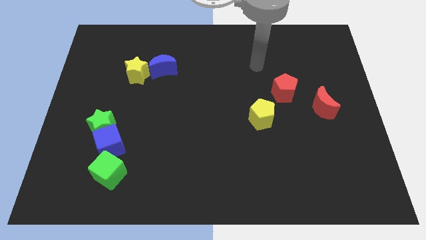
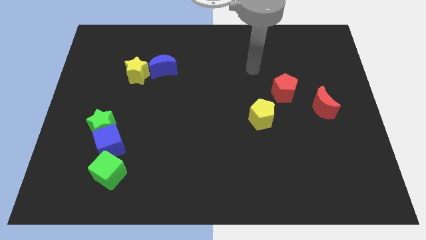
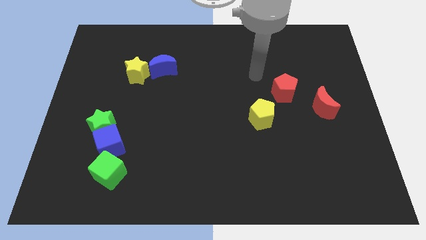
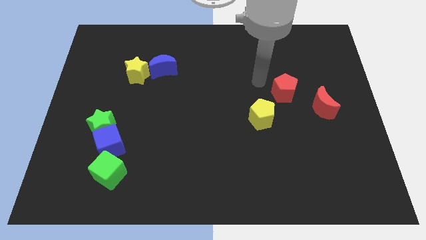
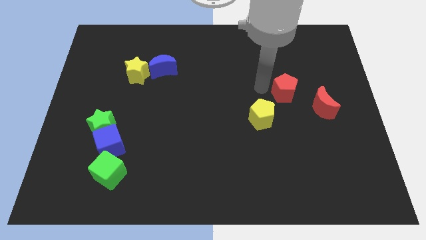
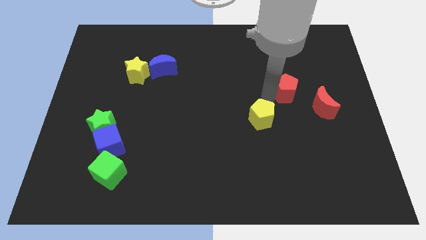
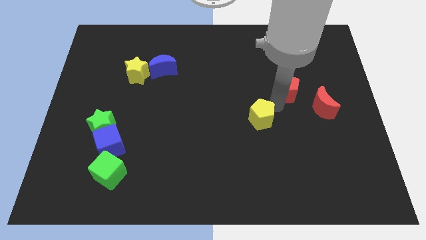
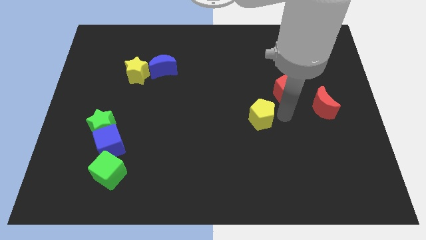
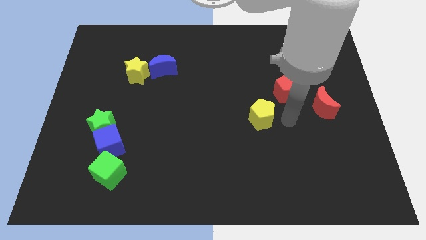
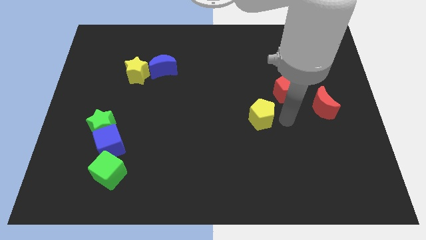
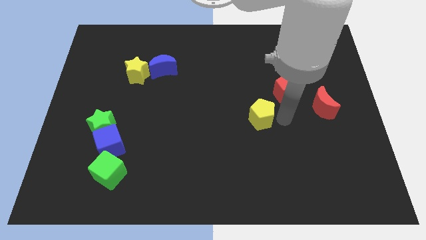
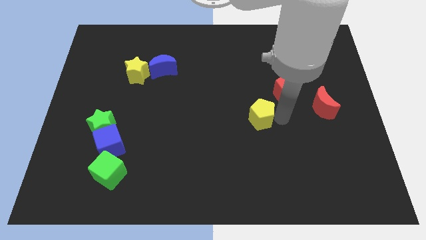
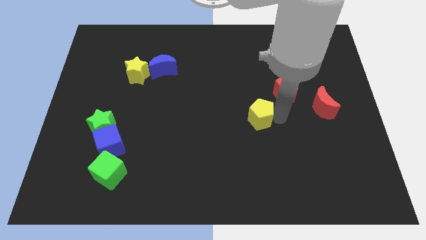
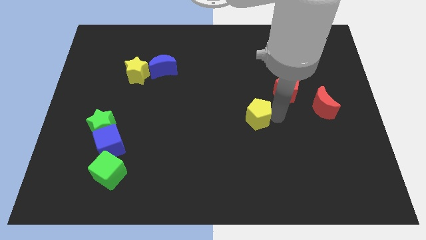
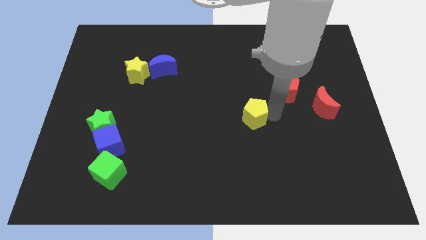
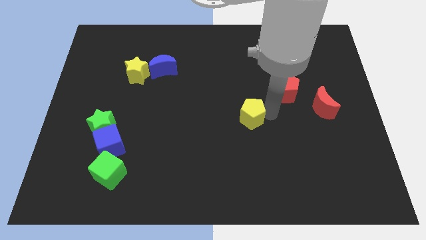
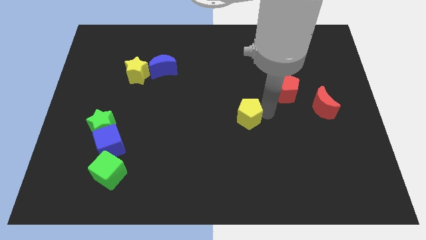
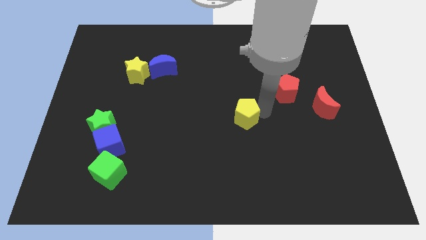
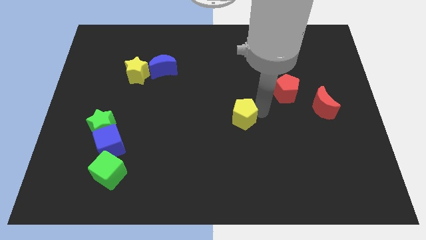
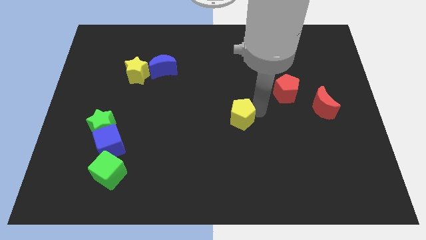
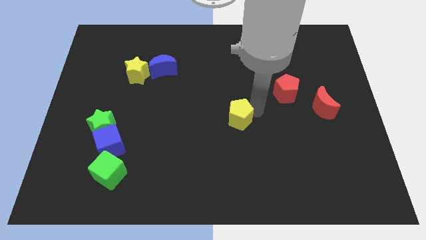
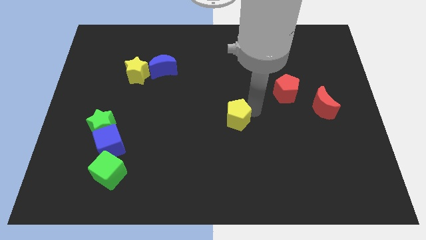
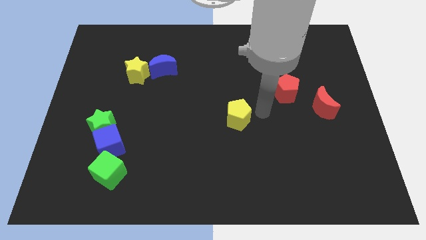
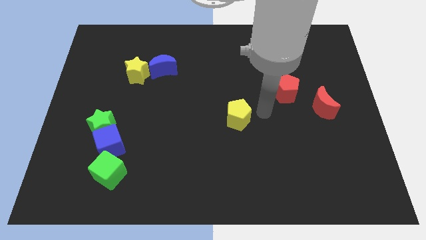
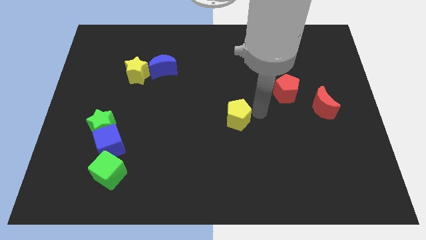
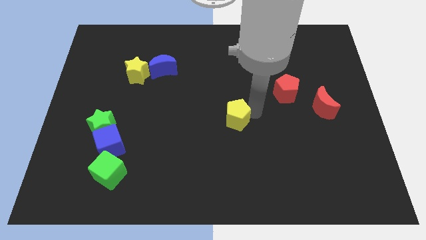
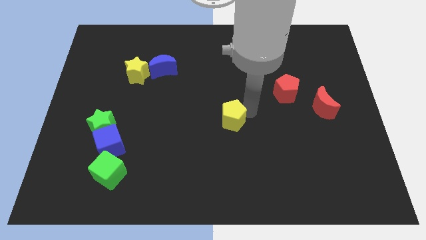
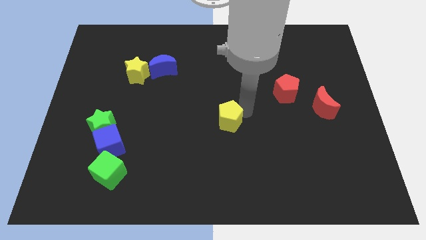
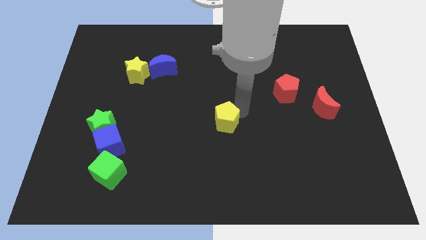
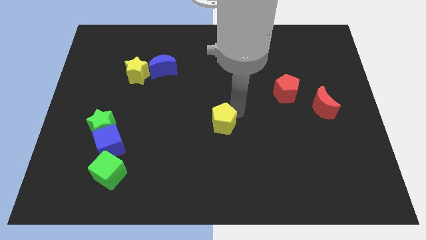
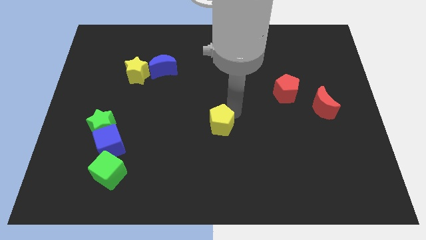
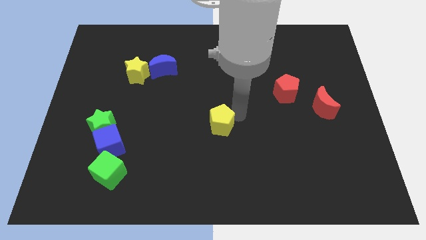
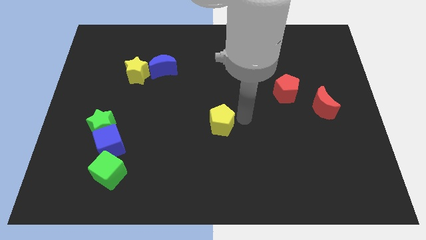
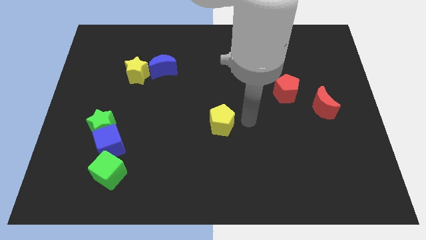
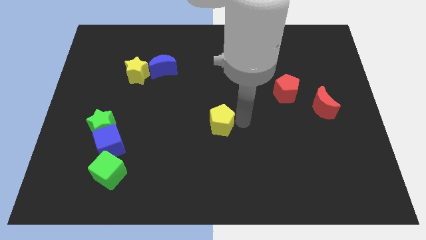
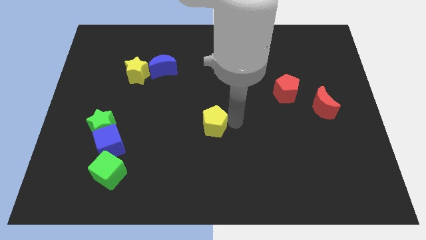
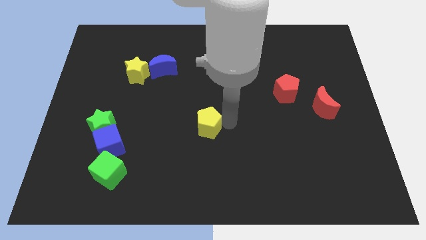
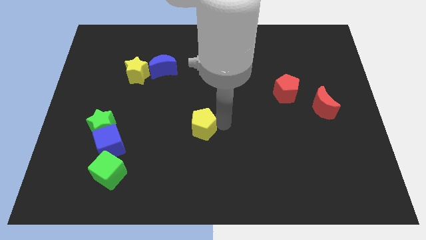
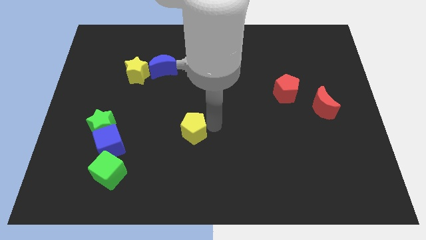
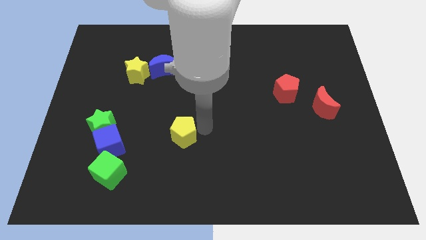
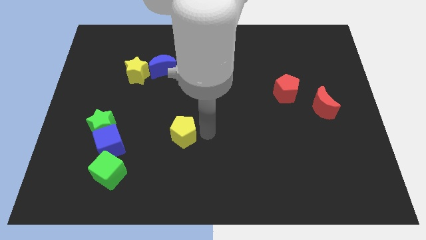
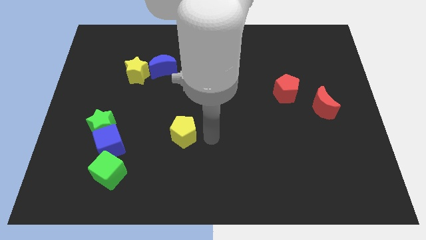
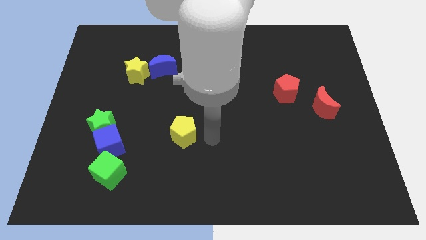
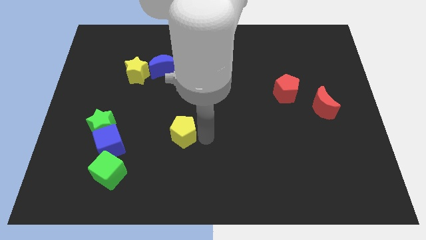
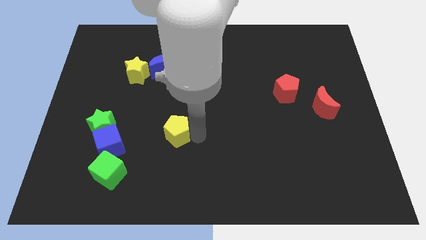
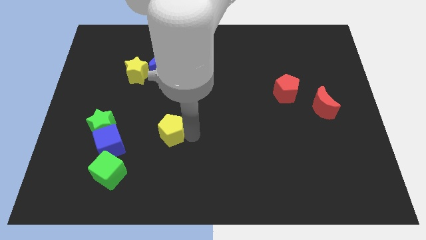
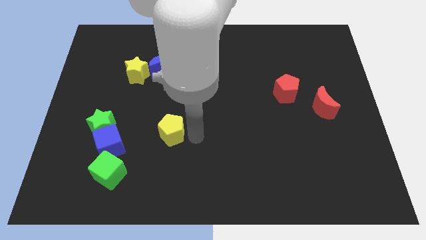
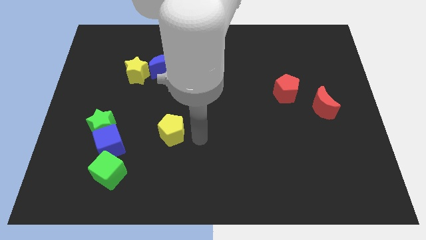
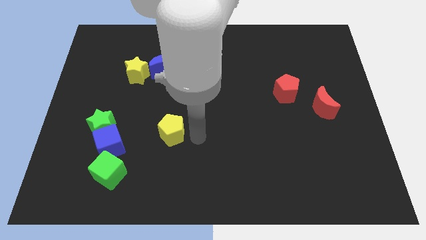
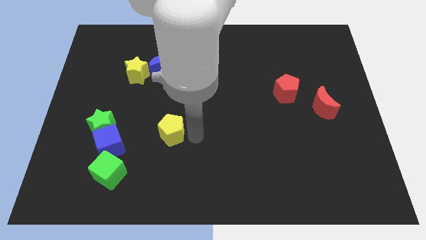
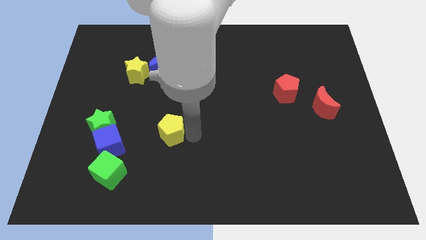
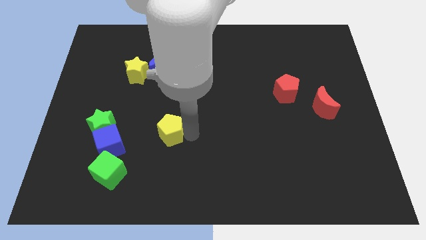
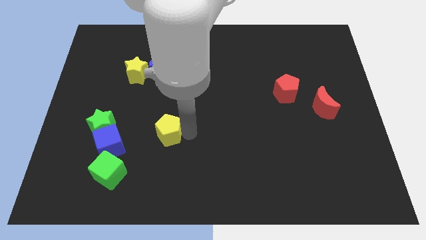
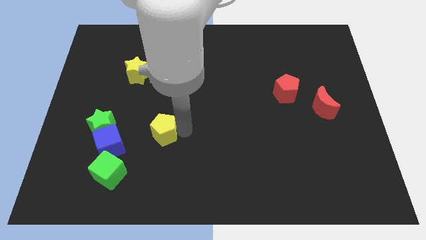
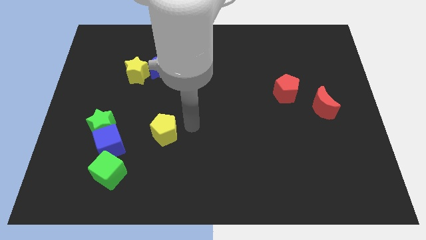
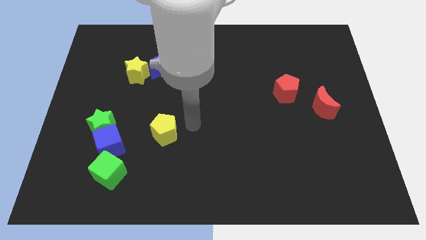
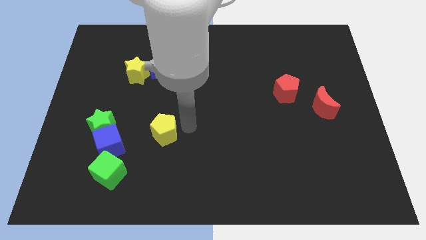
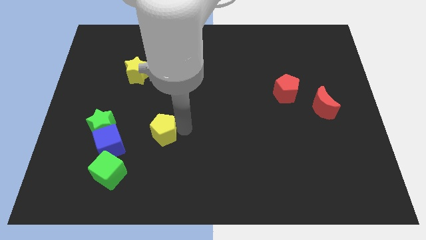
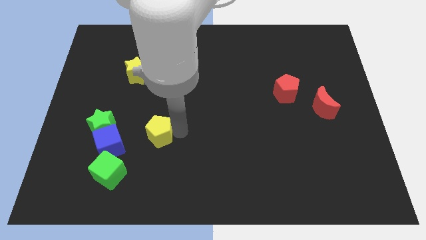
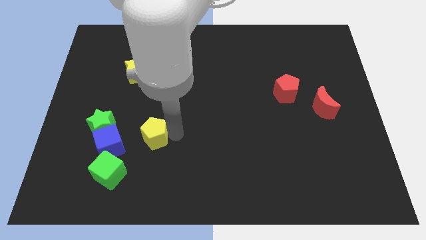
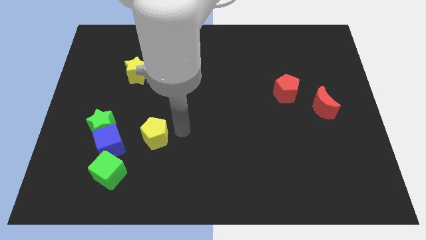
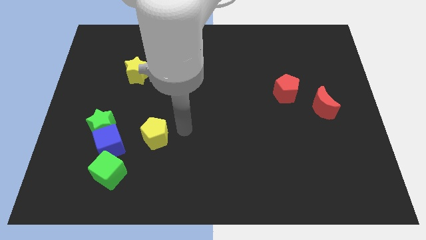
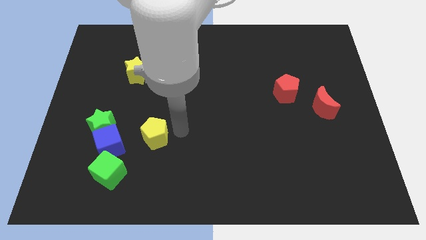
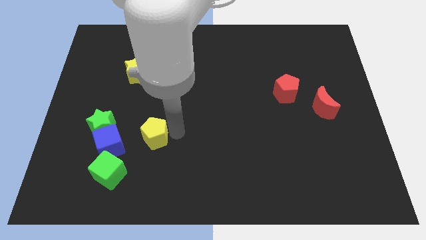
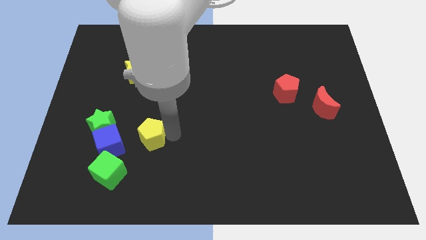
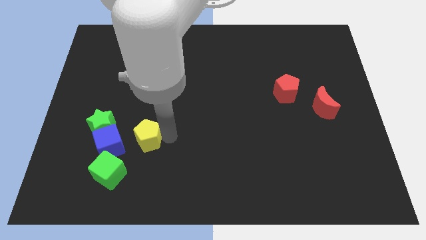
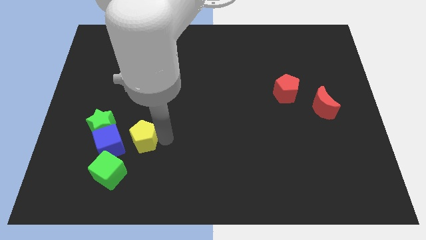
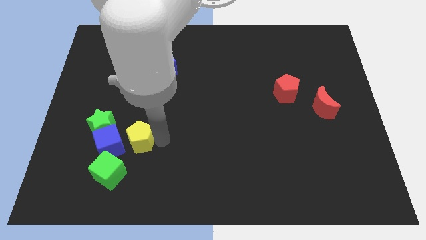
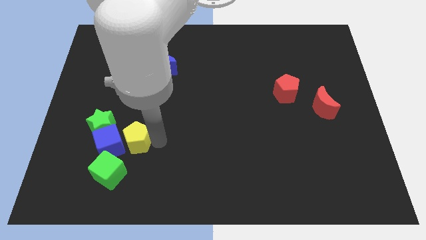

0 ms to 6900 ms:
put the yellow pentagon next to the blue cube
